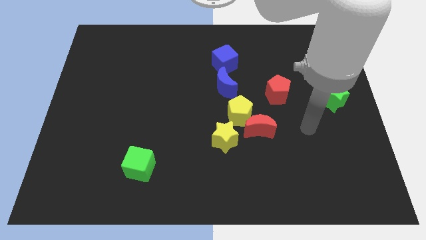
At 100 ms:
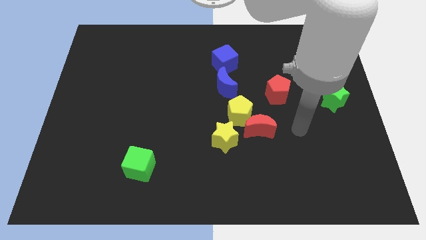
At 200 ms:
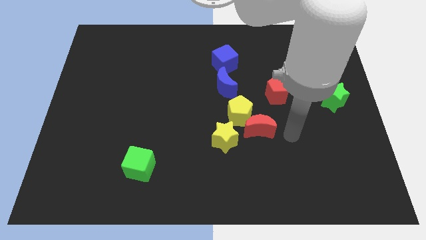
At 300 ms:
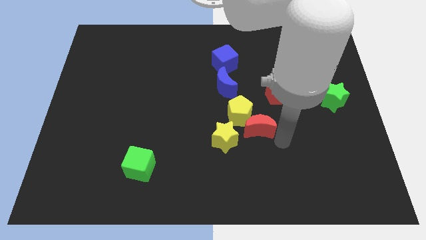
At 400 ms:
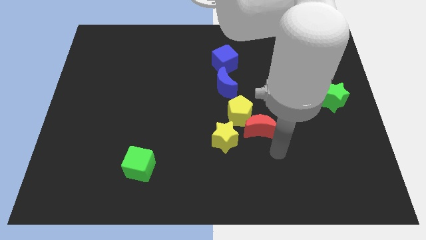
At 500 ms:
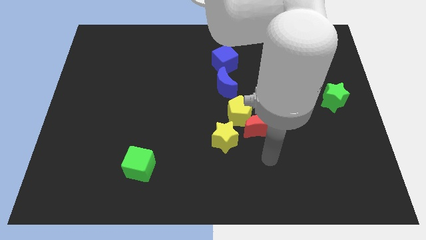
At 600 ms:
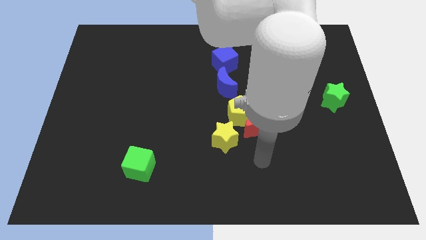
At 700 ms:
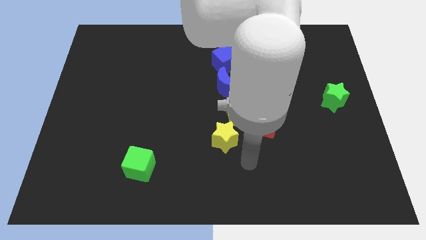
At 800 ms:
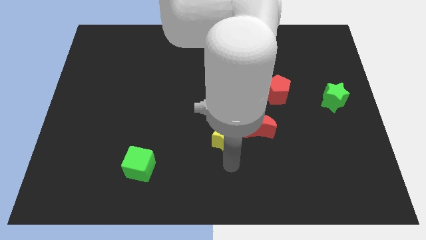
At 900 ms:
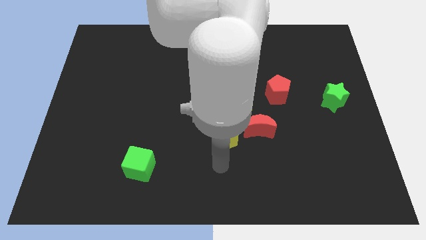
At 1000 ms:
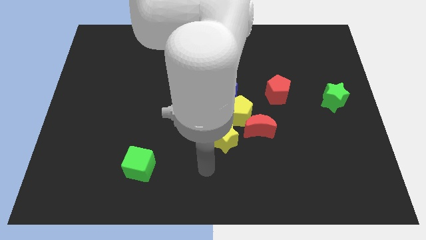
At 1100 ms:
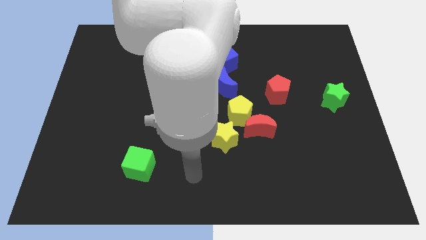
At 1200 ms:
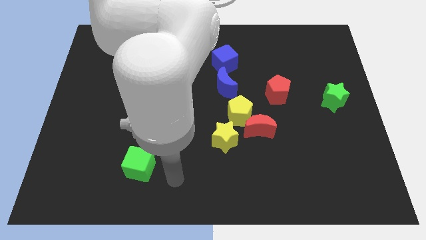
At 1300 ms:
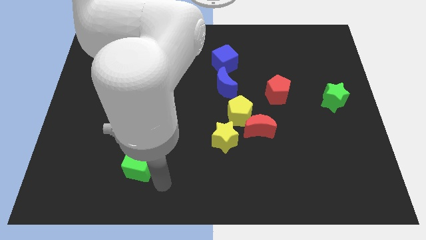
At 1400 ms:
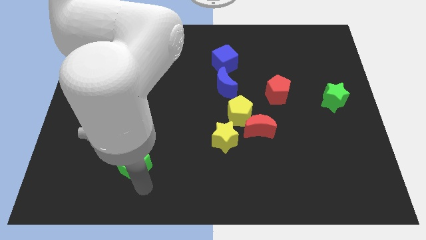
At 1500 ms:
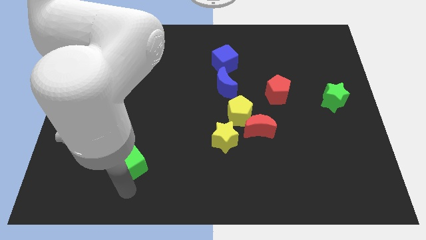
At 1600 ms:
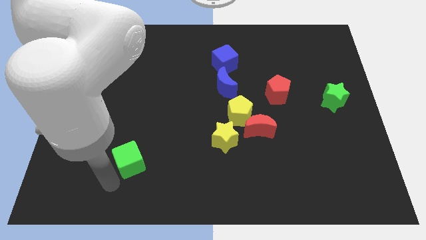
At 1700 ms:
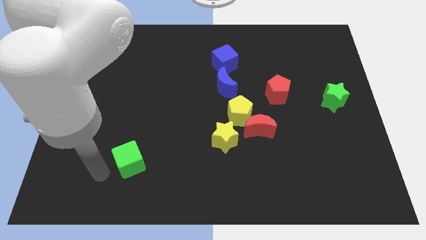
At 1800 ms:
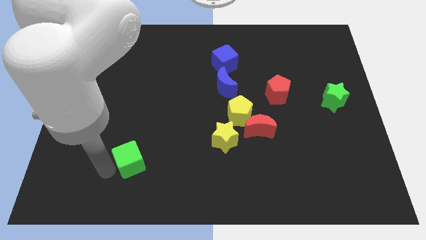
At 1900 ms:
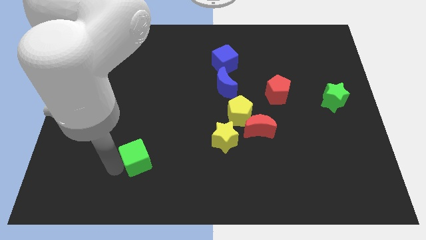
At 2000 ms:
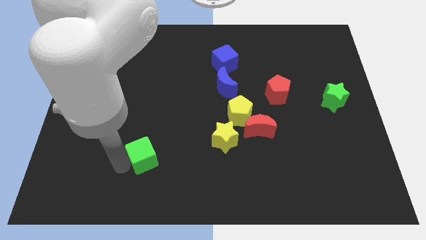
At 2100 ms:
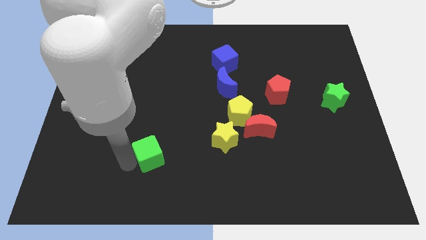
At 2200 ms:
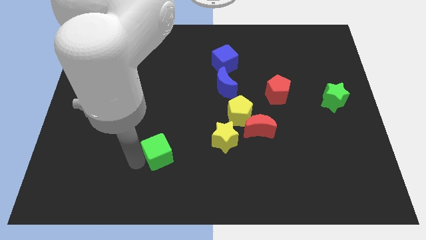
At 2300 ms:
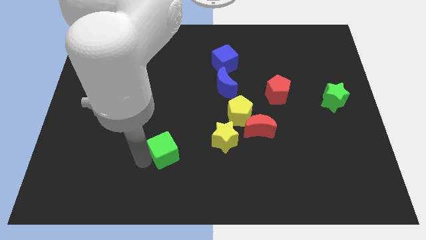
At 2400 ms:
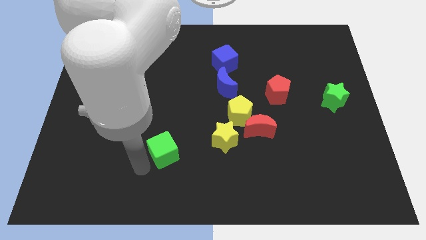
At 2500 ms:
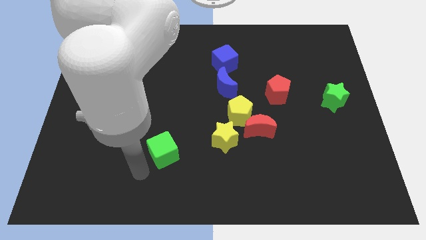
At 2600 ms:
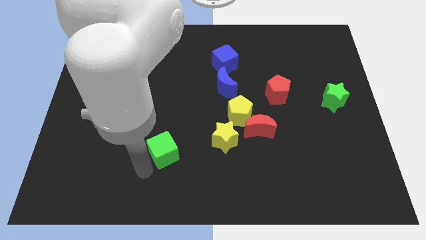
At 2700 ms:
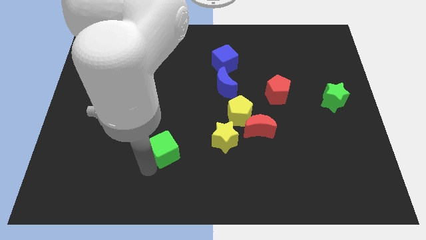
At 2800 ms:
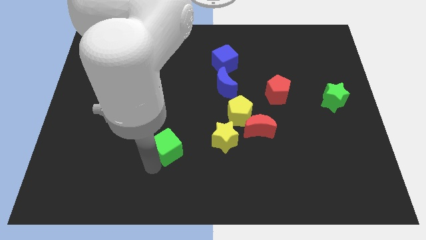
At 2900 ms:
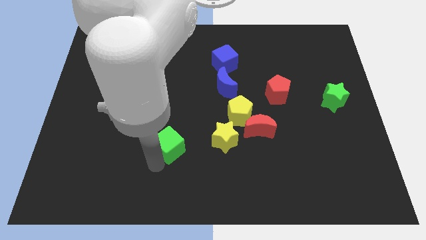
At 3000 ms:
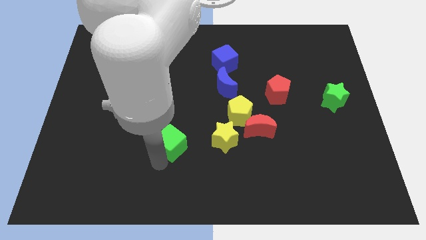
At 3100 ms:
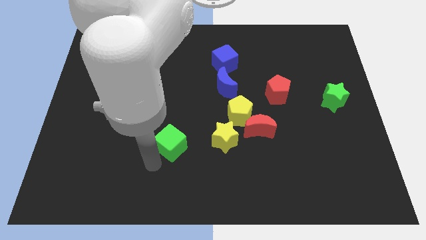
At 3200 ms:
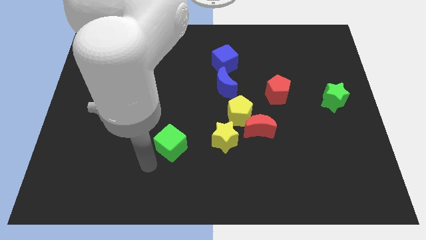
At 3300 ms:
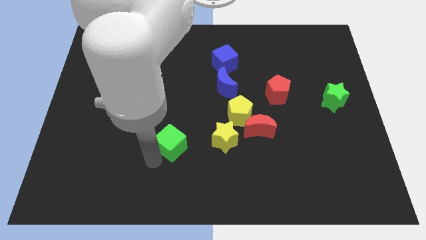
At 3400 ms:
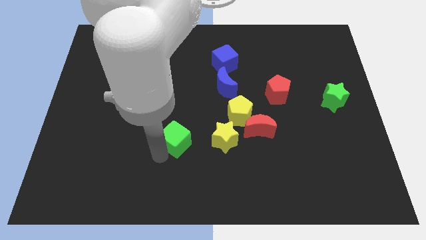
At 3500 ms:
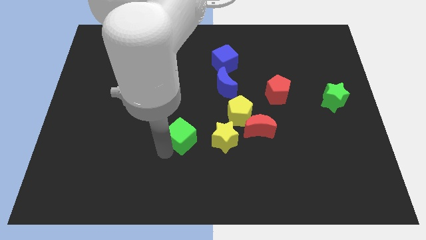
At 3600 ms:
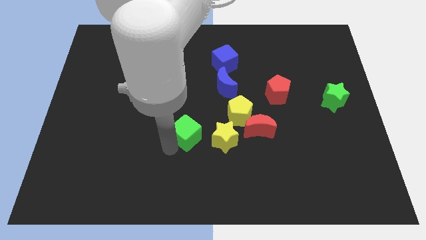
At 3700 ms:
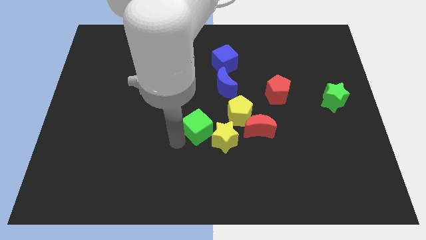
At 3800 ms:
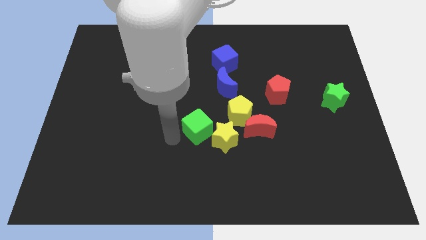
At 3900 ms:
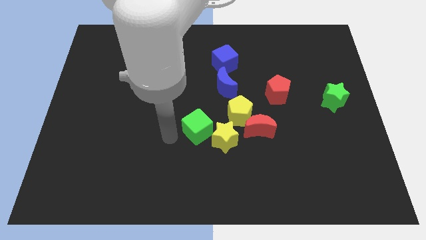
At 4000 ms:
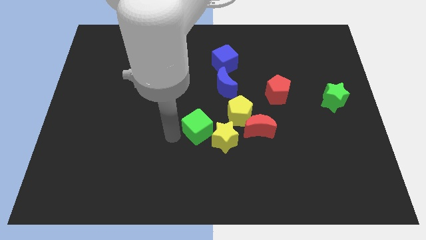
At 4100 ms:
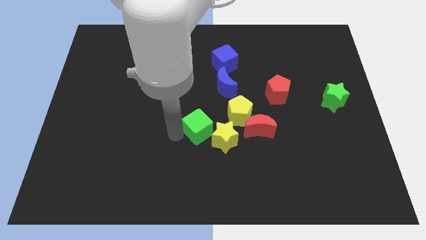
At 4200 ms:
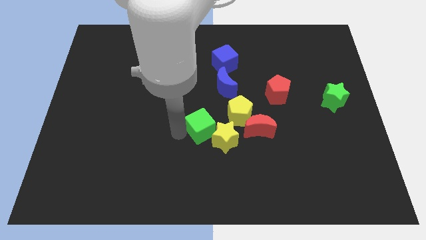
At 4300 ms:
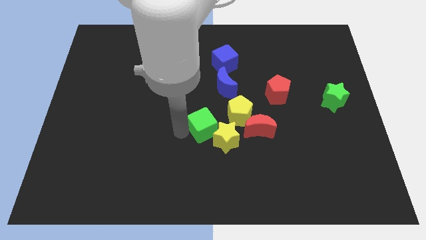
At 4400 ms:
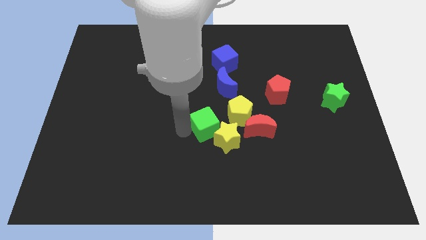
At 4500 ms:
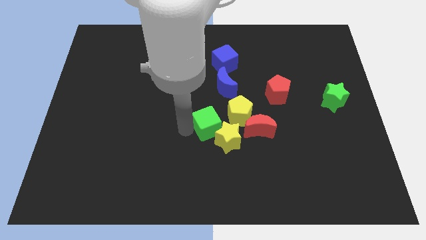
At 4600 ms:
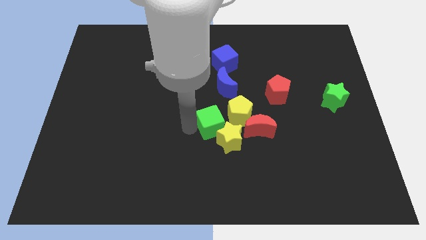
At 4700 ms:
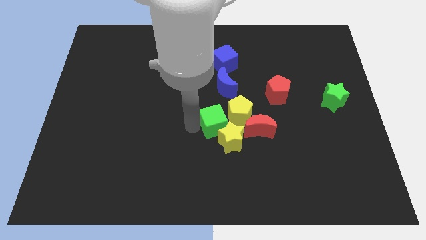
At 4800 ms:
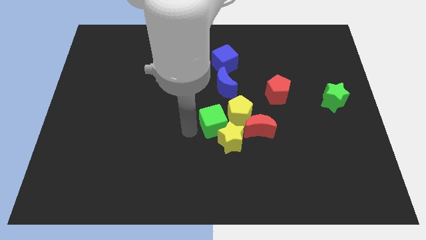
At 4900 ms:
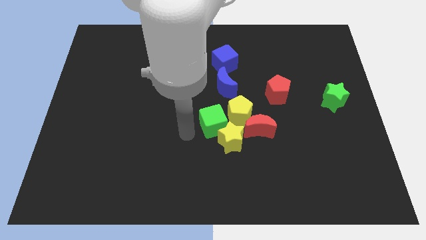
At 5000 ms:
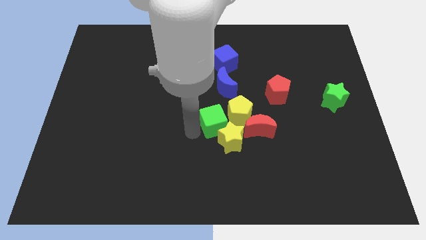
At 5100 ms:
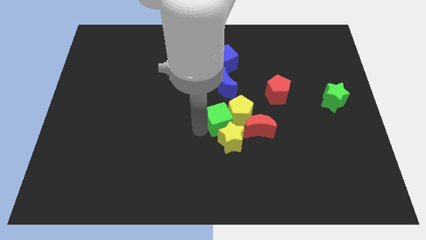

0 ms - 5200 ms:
push the green cube next to the yellow pentagon

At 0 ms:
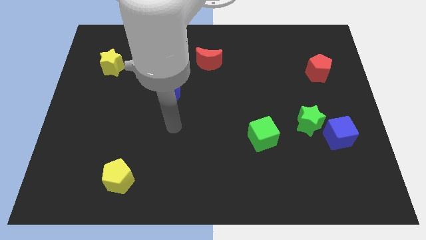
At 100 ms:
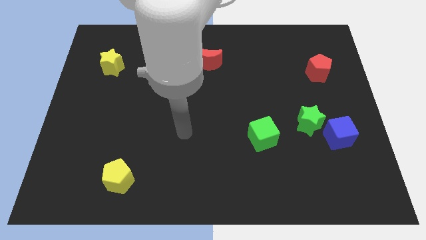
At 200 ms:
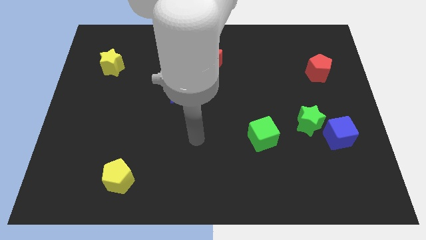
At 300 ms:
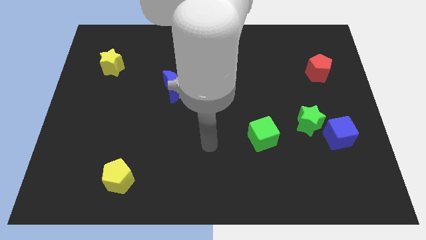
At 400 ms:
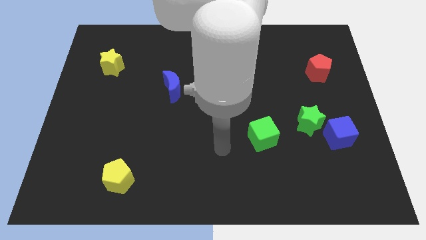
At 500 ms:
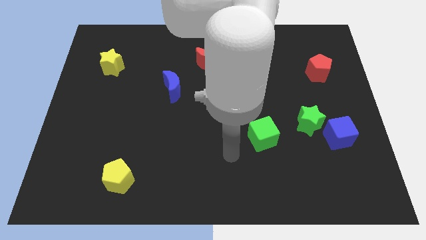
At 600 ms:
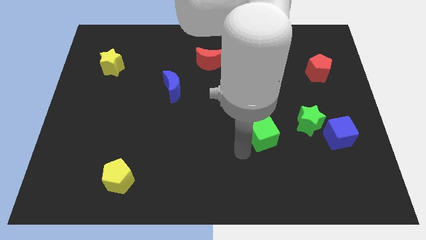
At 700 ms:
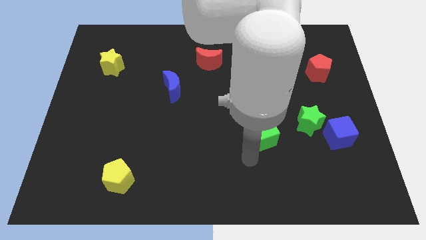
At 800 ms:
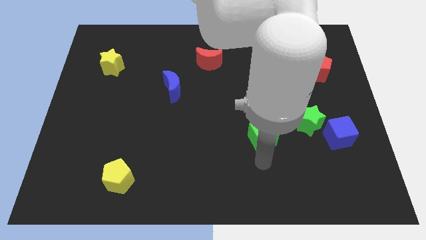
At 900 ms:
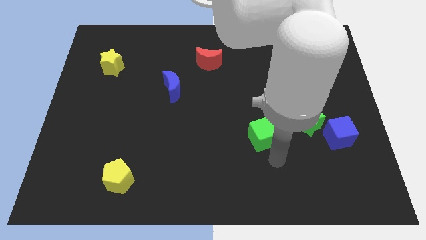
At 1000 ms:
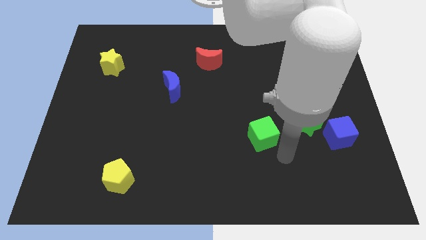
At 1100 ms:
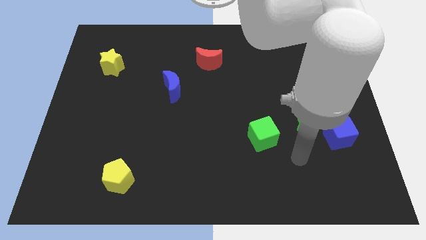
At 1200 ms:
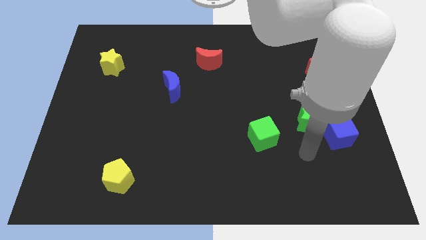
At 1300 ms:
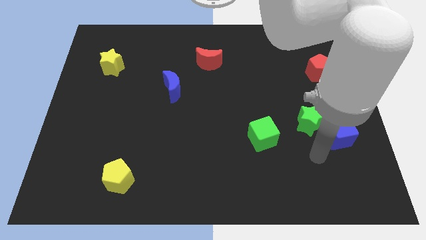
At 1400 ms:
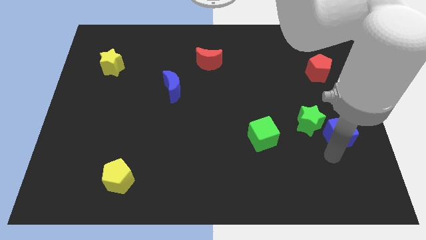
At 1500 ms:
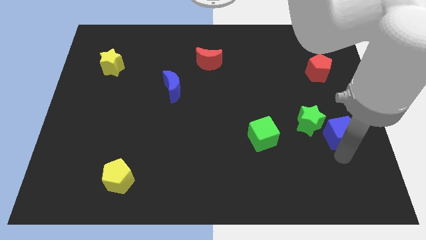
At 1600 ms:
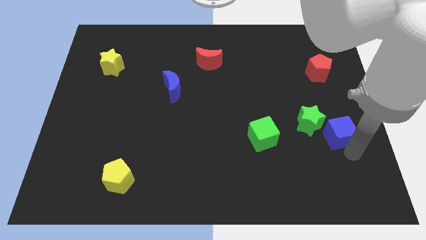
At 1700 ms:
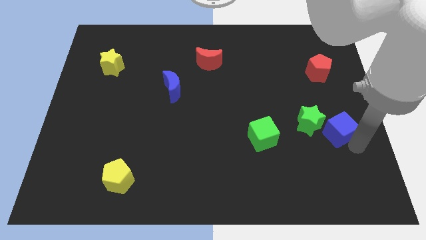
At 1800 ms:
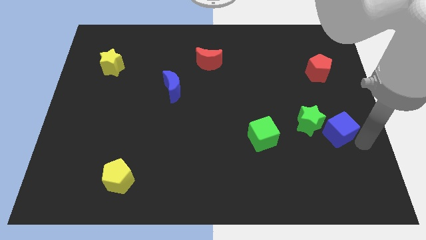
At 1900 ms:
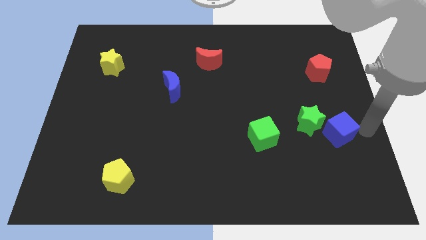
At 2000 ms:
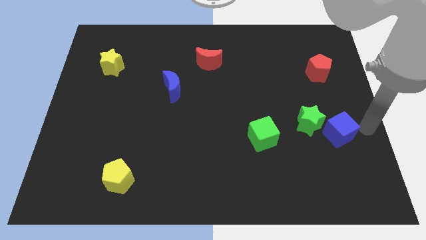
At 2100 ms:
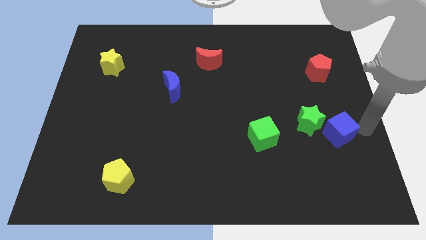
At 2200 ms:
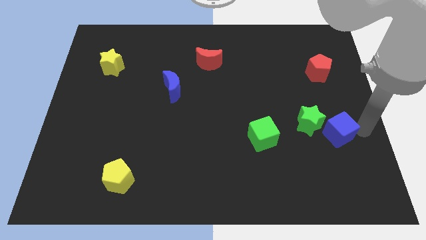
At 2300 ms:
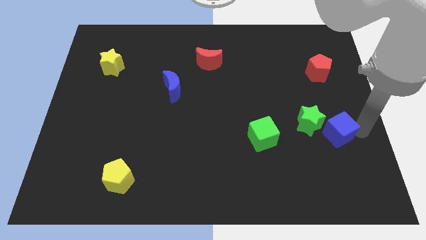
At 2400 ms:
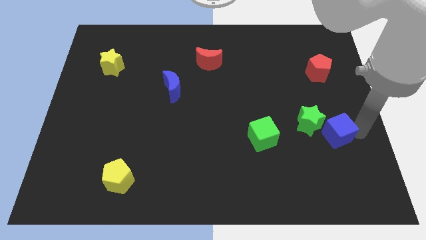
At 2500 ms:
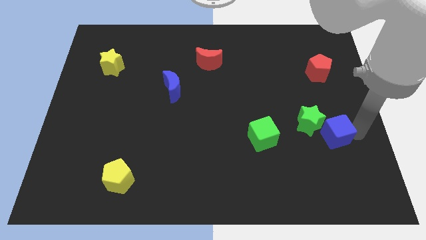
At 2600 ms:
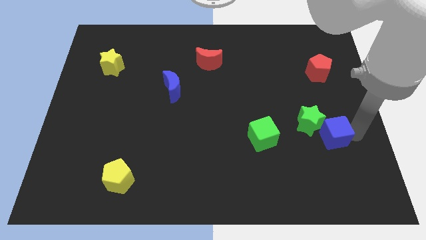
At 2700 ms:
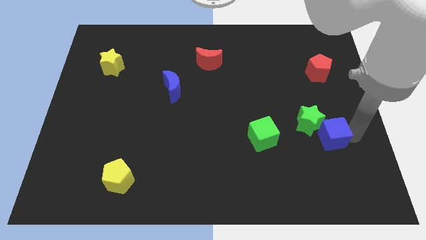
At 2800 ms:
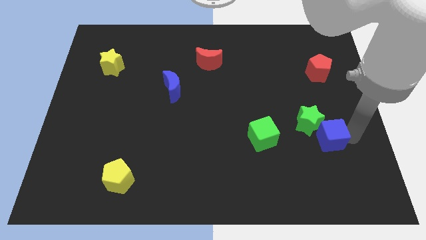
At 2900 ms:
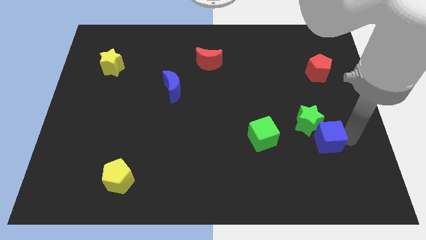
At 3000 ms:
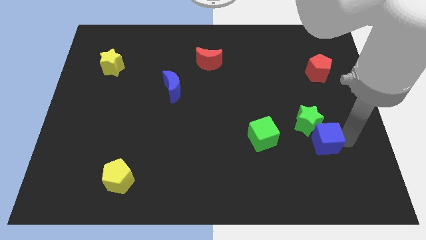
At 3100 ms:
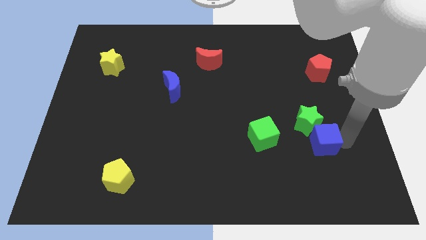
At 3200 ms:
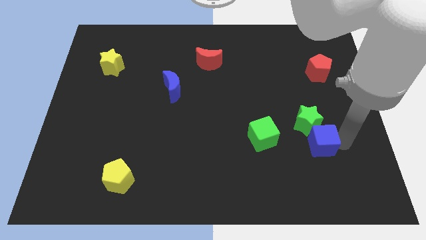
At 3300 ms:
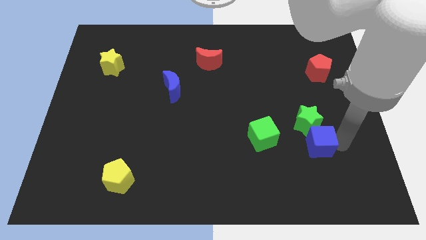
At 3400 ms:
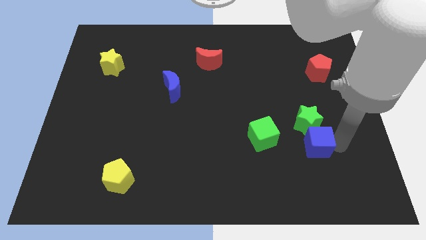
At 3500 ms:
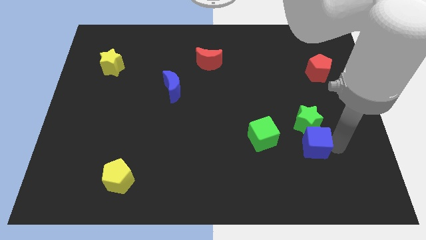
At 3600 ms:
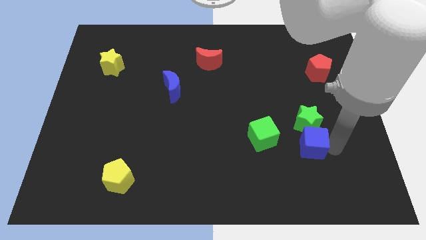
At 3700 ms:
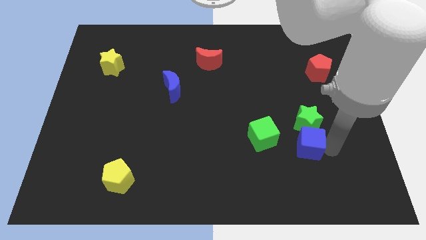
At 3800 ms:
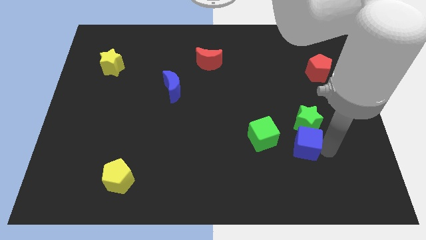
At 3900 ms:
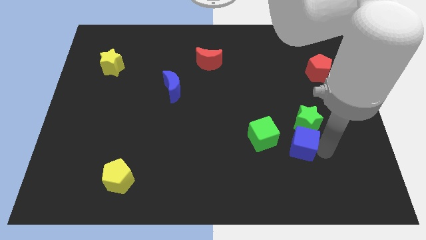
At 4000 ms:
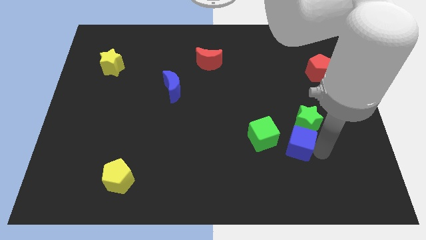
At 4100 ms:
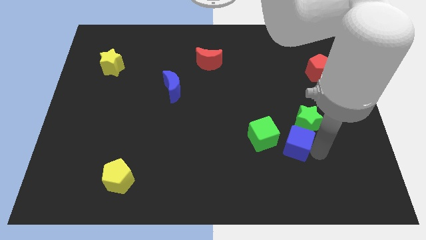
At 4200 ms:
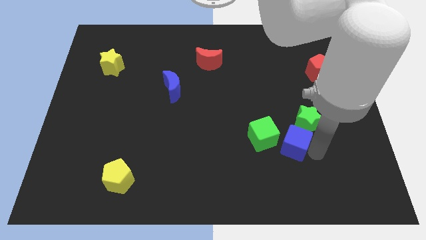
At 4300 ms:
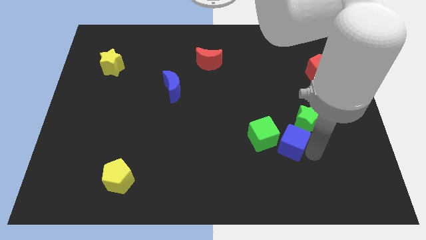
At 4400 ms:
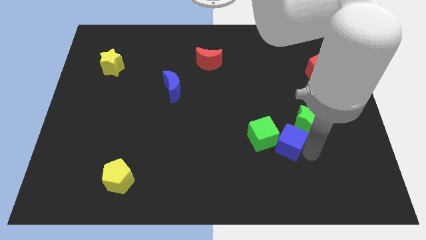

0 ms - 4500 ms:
move the blue cube close to the green cube
